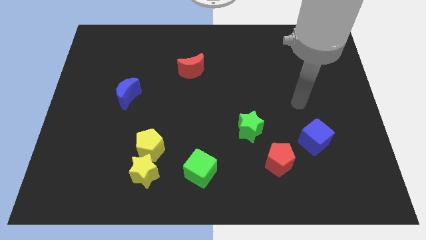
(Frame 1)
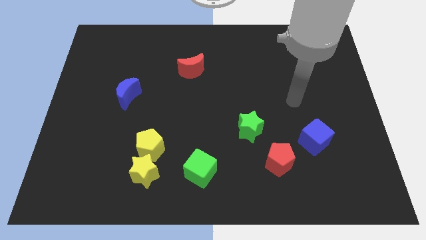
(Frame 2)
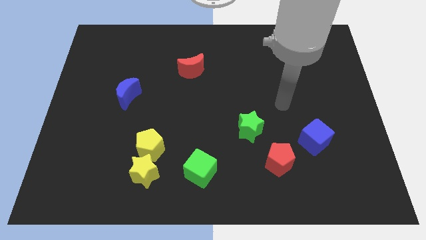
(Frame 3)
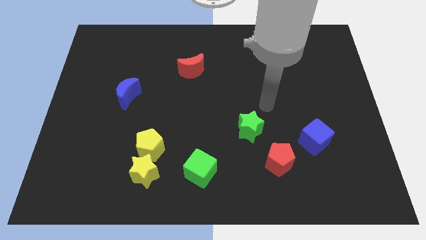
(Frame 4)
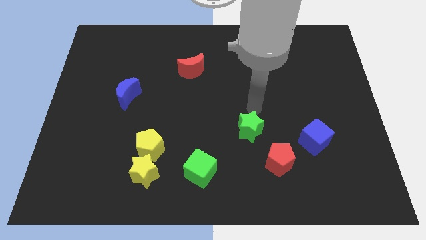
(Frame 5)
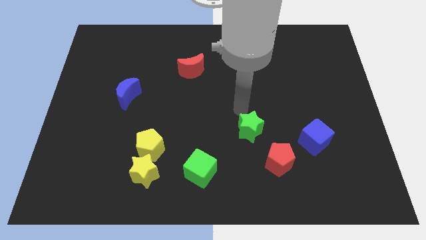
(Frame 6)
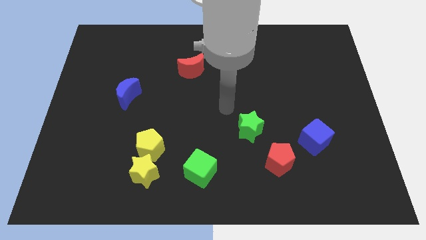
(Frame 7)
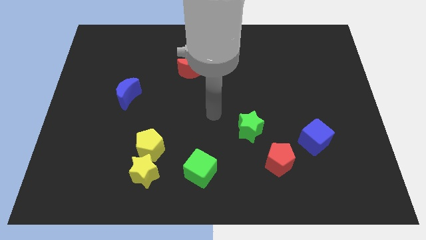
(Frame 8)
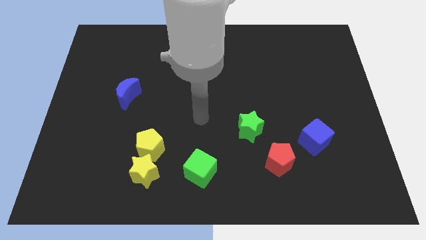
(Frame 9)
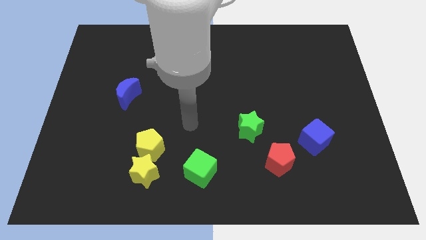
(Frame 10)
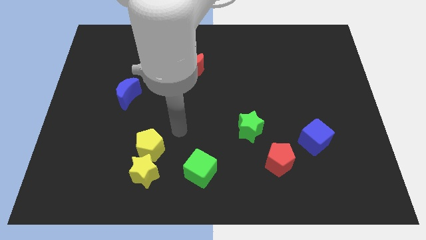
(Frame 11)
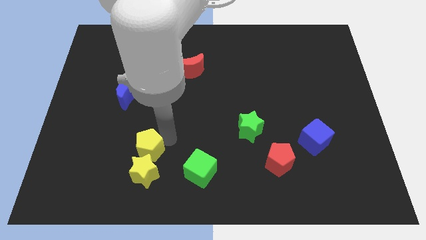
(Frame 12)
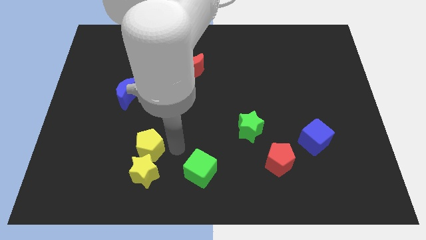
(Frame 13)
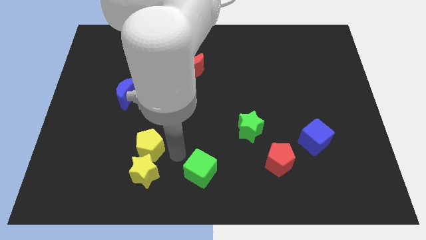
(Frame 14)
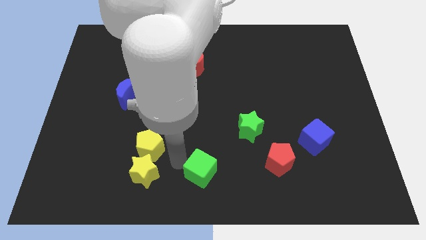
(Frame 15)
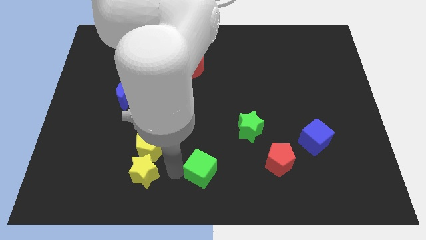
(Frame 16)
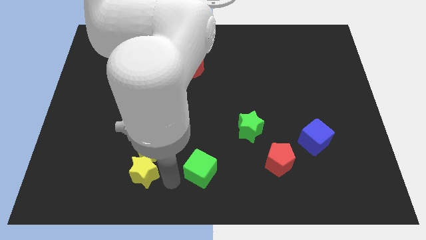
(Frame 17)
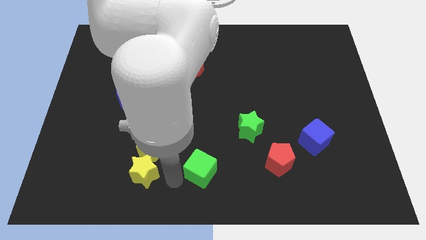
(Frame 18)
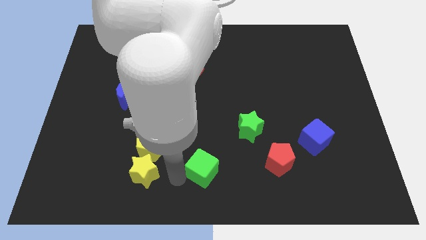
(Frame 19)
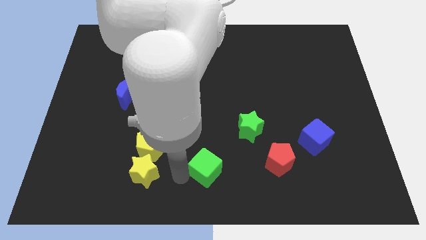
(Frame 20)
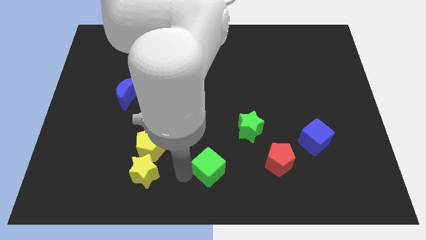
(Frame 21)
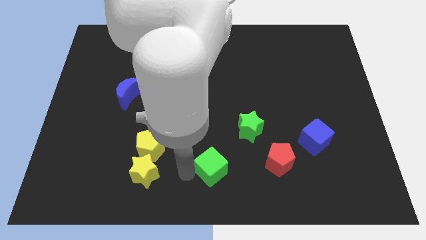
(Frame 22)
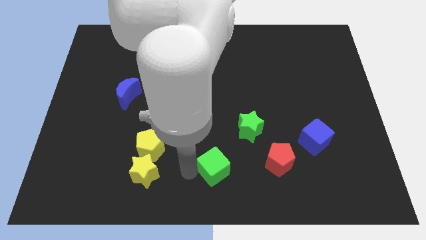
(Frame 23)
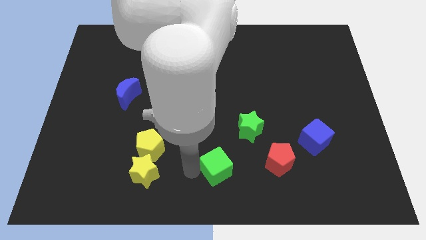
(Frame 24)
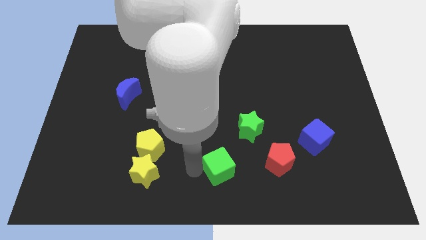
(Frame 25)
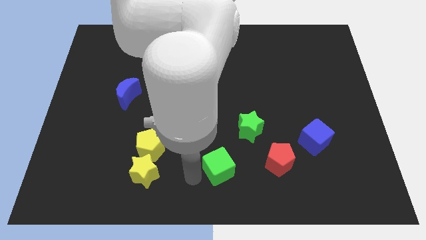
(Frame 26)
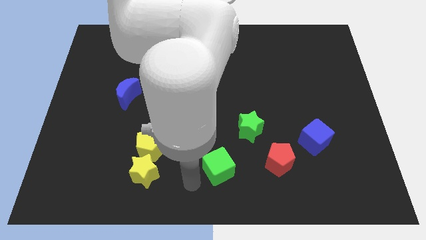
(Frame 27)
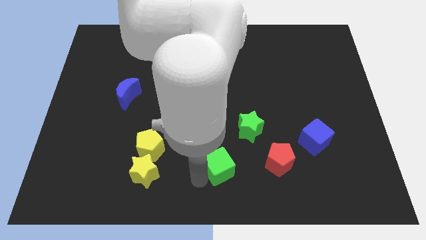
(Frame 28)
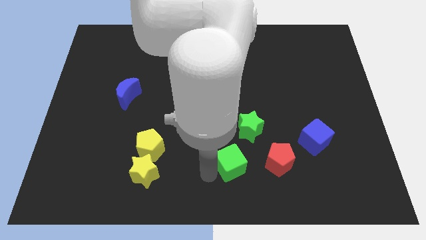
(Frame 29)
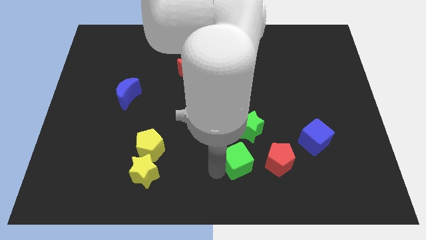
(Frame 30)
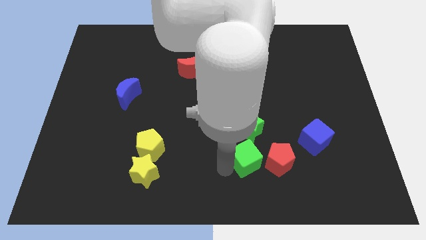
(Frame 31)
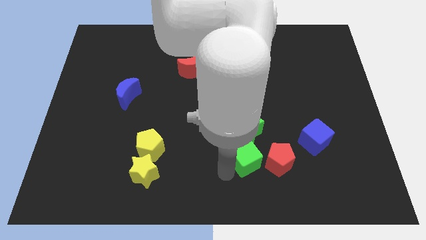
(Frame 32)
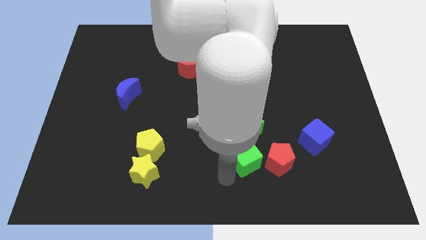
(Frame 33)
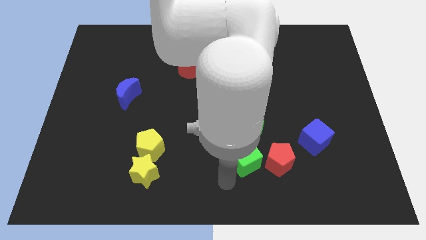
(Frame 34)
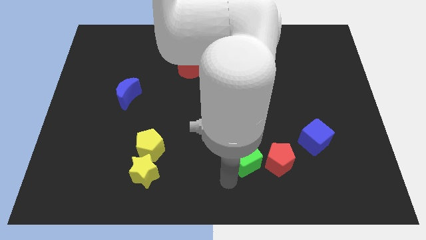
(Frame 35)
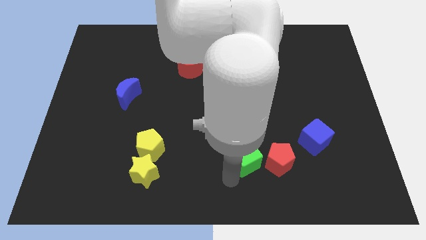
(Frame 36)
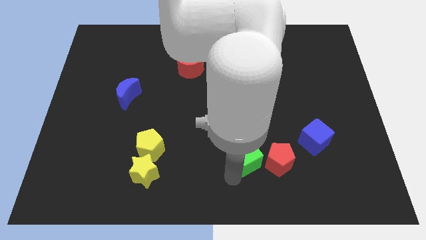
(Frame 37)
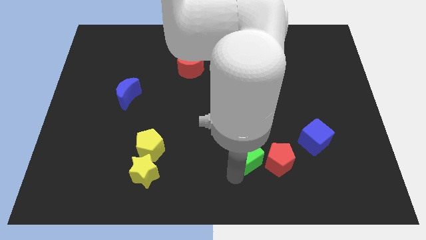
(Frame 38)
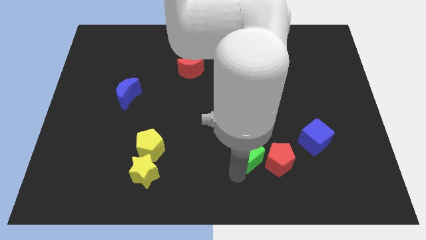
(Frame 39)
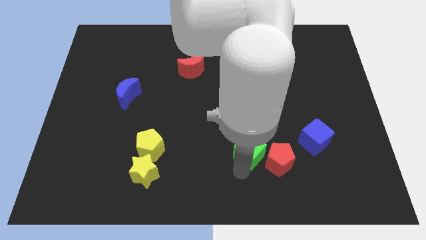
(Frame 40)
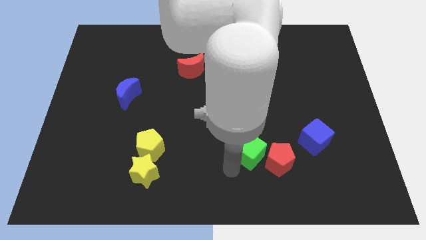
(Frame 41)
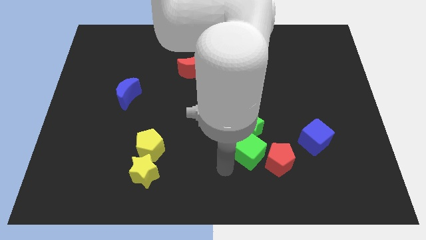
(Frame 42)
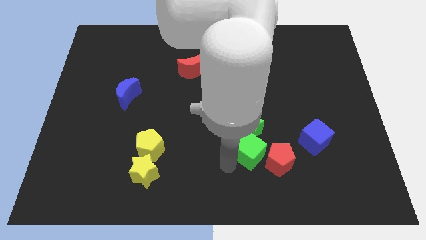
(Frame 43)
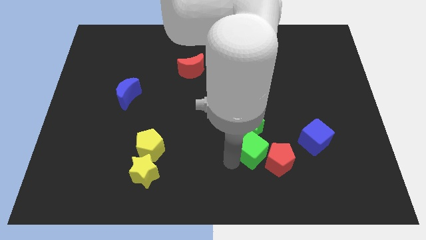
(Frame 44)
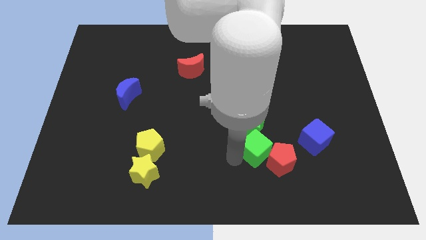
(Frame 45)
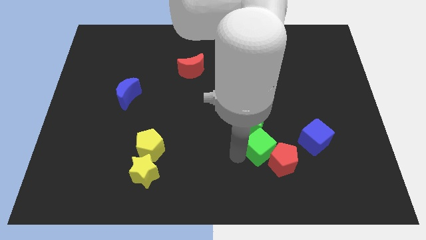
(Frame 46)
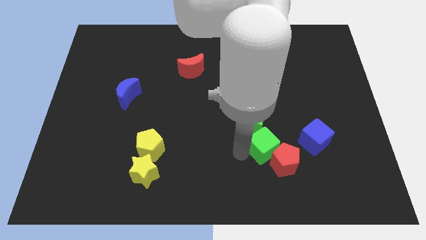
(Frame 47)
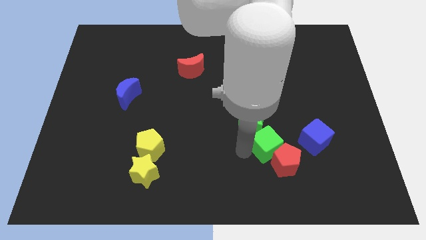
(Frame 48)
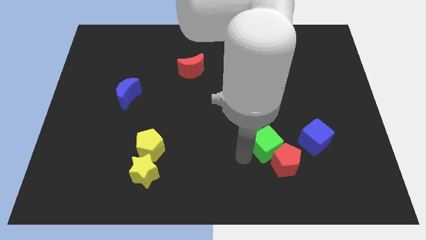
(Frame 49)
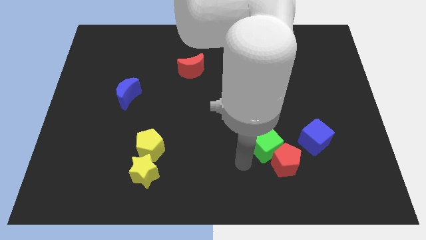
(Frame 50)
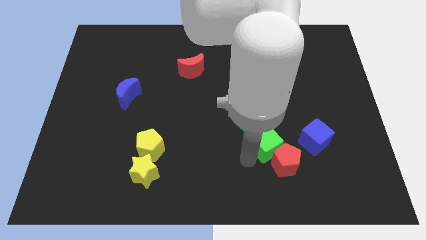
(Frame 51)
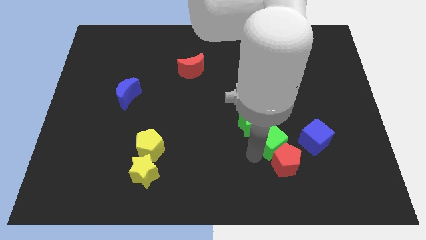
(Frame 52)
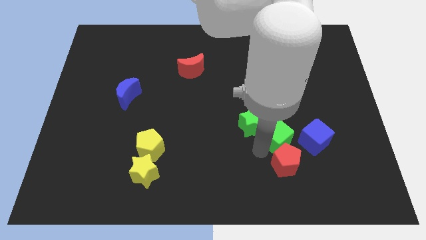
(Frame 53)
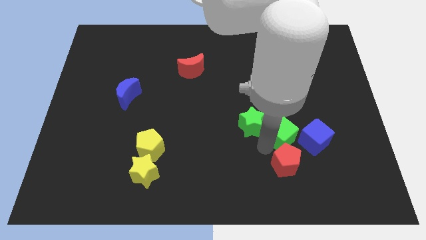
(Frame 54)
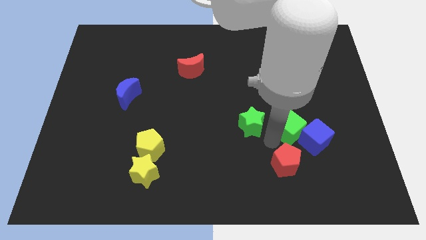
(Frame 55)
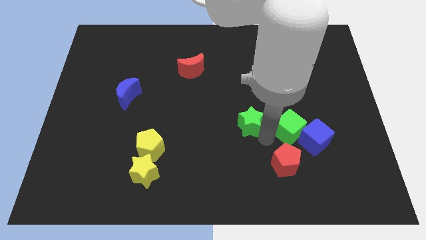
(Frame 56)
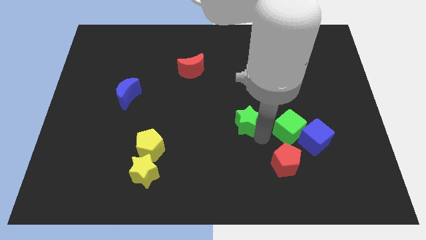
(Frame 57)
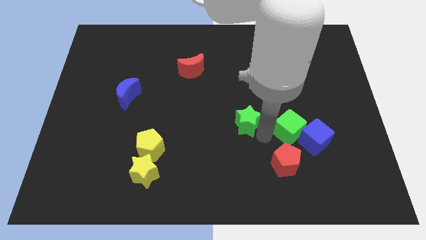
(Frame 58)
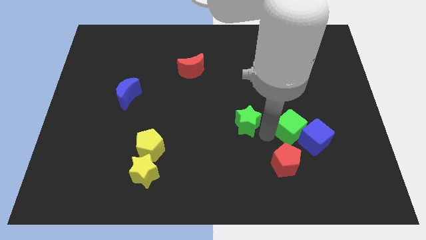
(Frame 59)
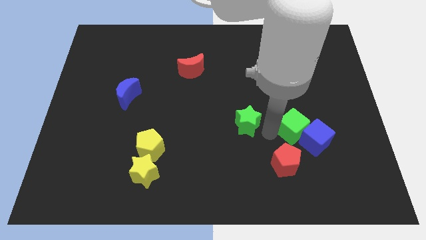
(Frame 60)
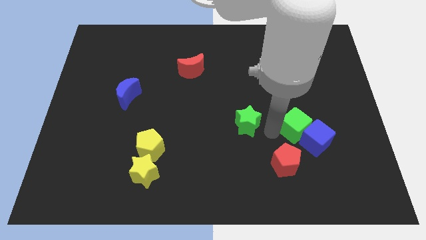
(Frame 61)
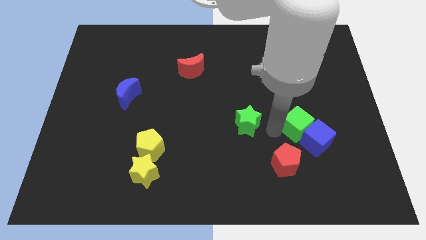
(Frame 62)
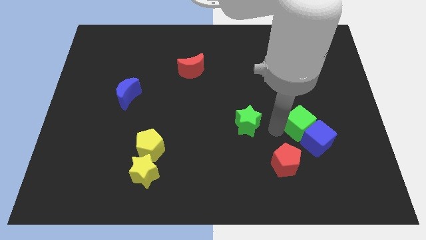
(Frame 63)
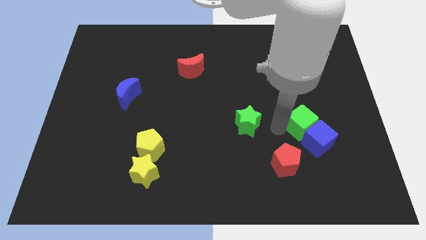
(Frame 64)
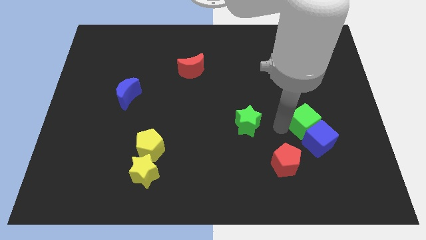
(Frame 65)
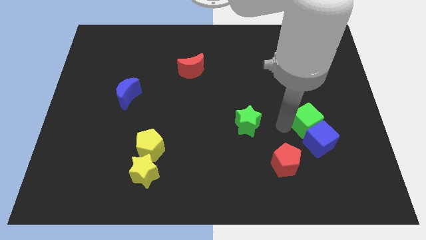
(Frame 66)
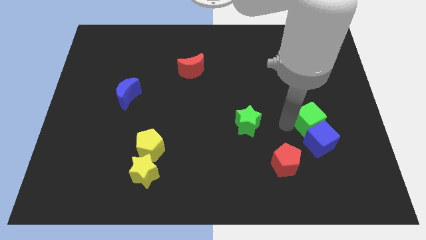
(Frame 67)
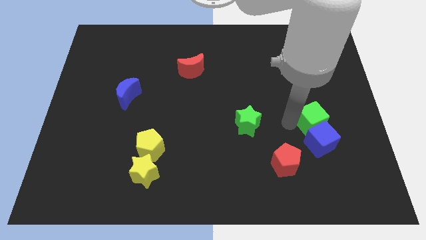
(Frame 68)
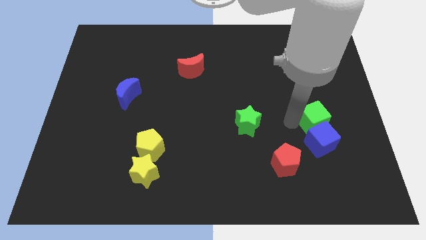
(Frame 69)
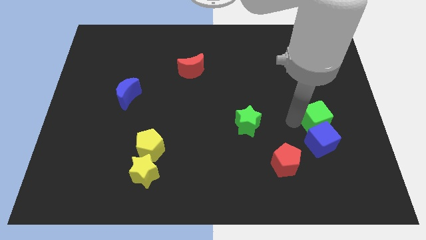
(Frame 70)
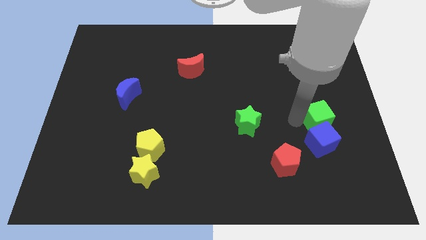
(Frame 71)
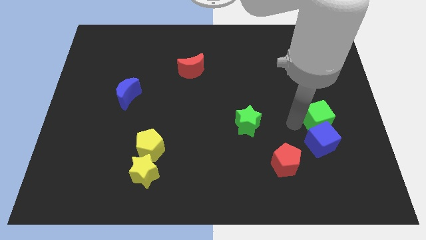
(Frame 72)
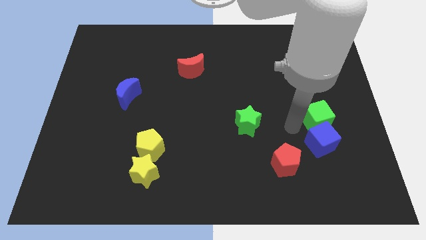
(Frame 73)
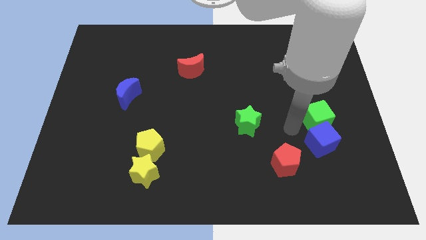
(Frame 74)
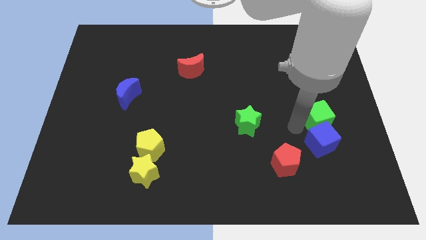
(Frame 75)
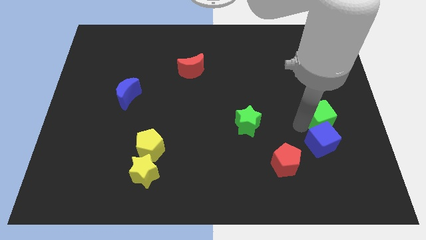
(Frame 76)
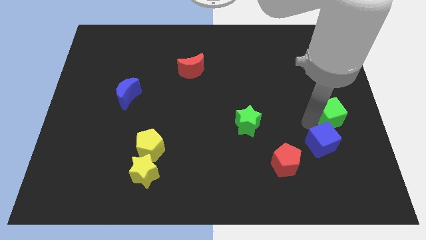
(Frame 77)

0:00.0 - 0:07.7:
put the green cube to the right side of the board
